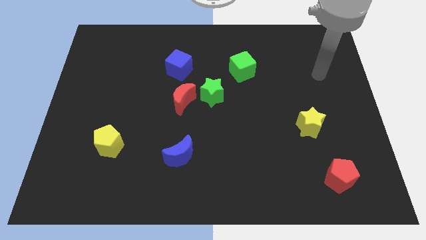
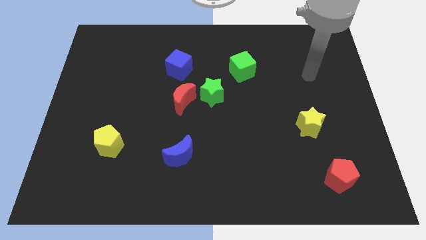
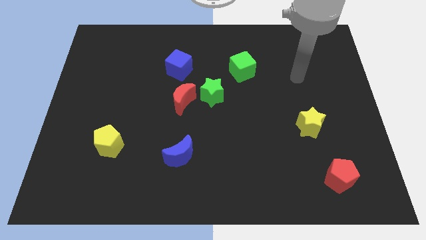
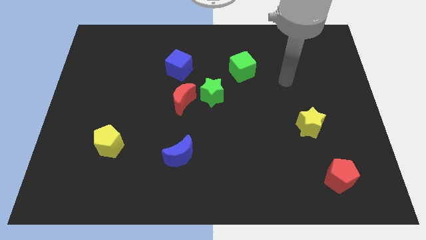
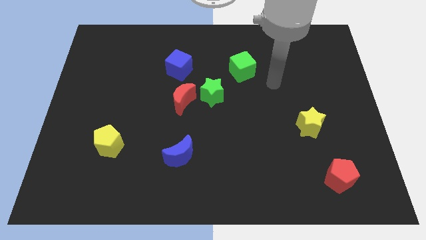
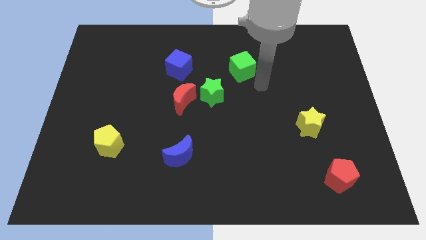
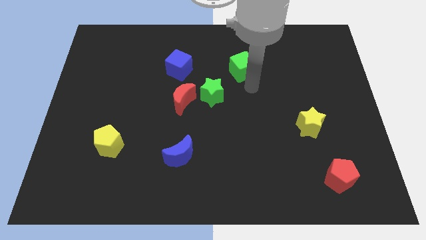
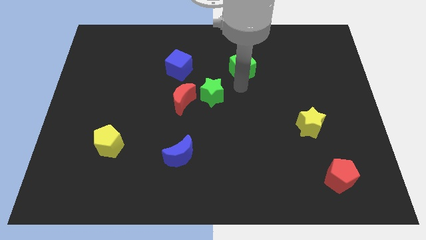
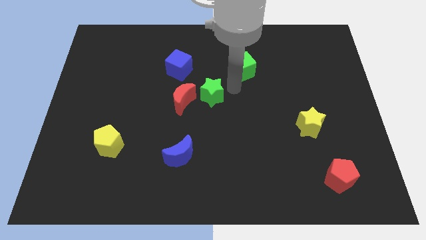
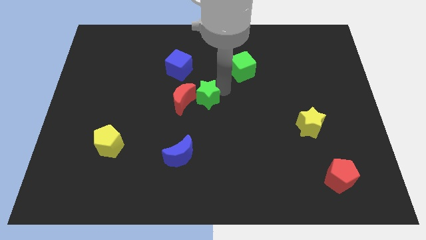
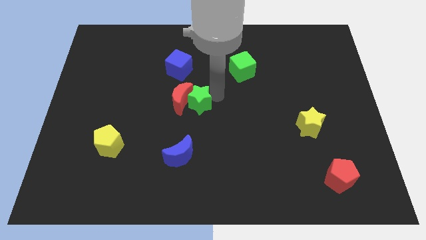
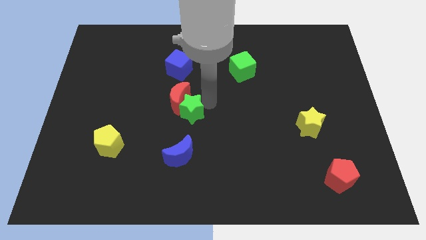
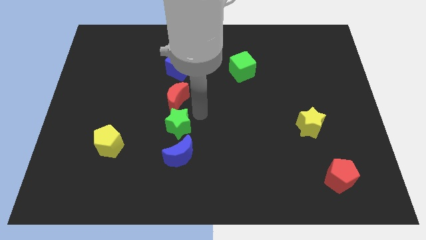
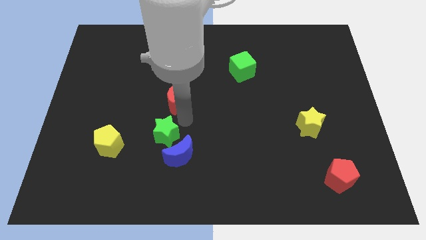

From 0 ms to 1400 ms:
pull the red moon apart from the green star

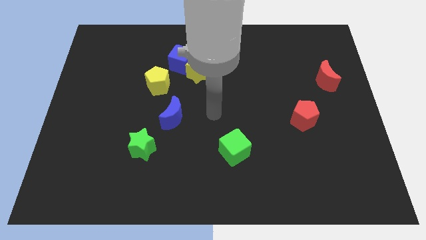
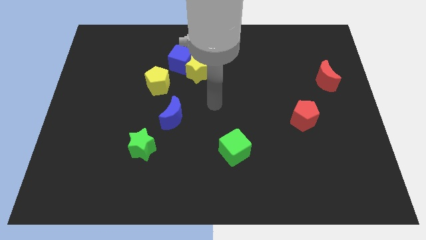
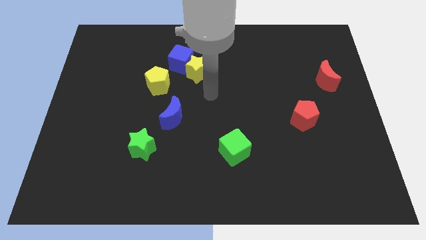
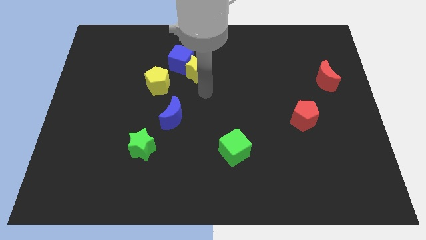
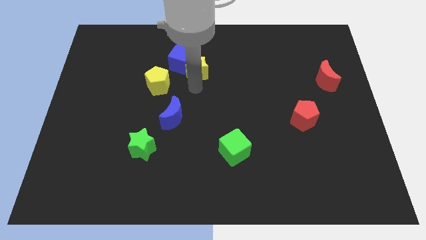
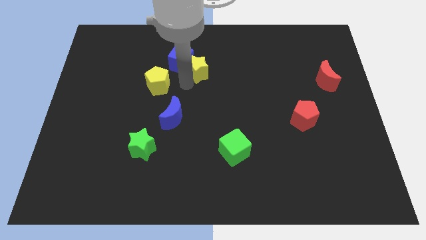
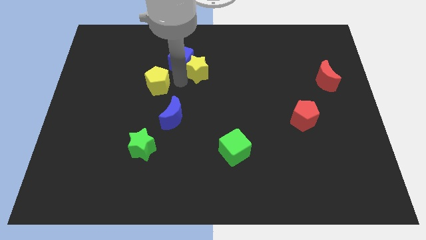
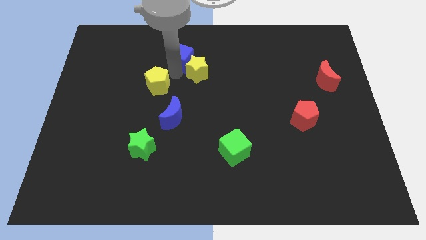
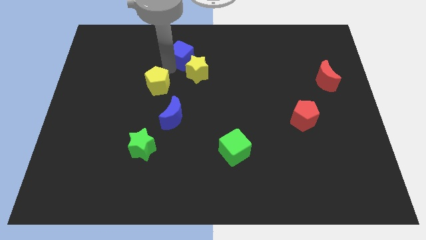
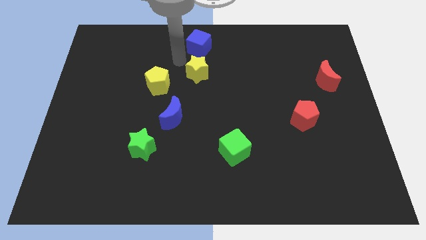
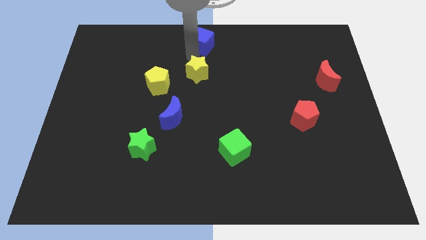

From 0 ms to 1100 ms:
move the yellow star away from the blue cube

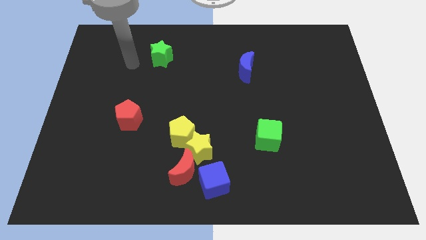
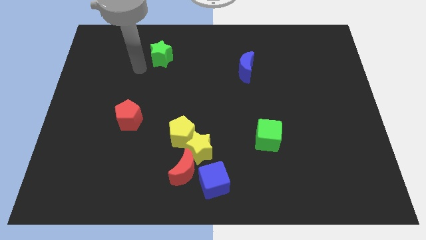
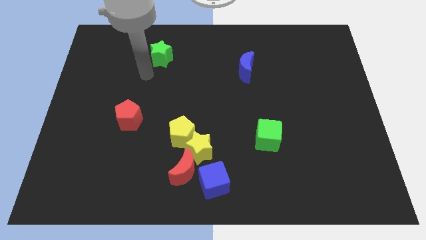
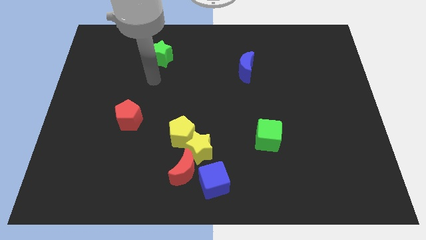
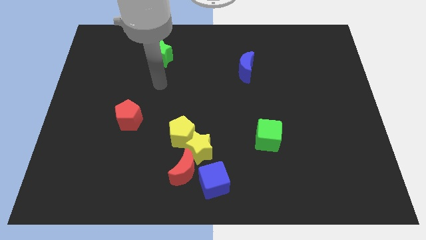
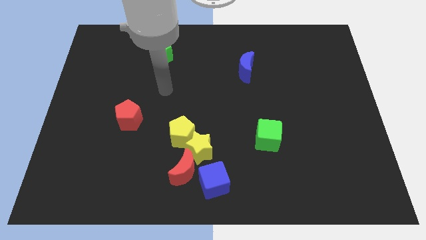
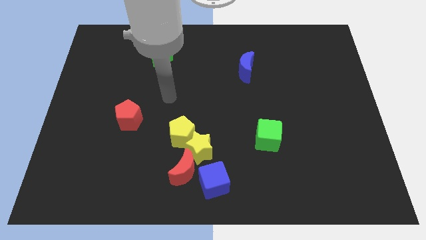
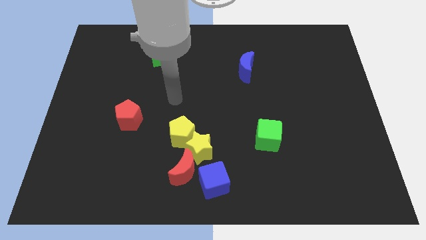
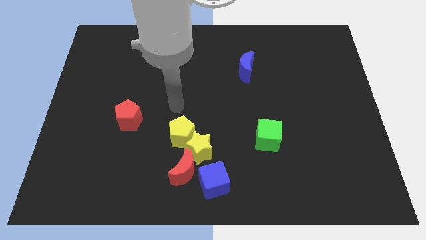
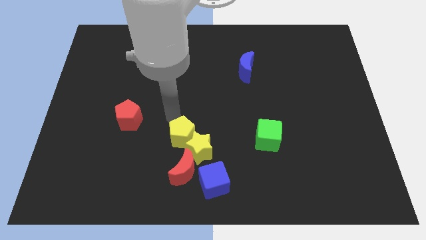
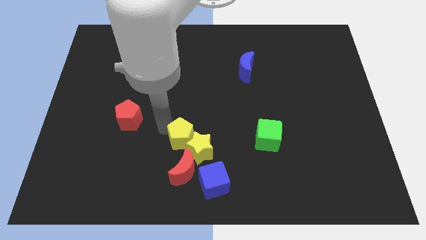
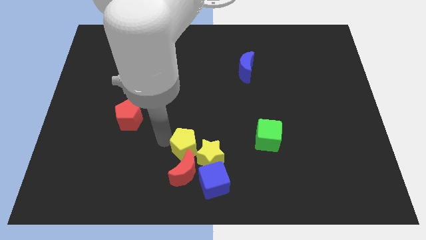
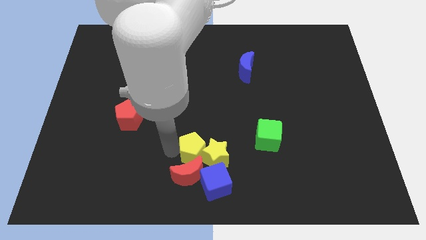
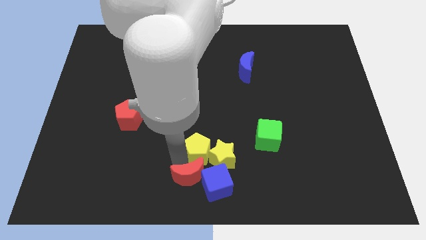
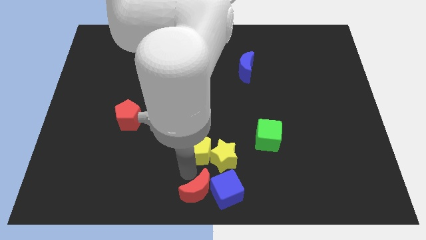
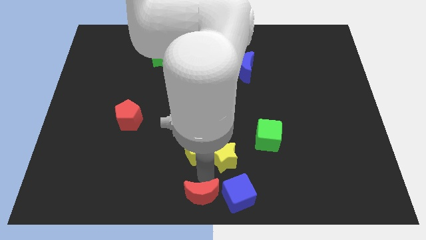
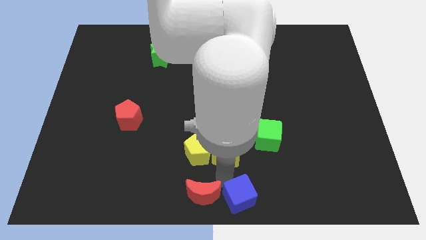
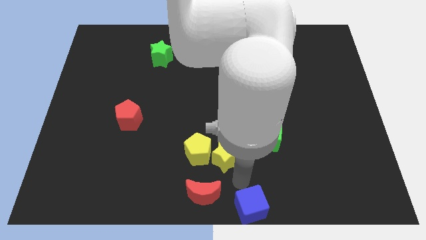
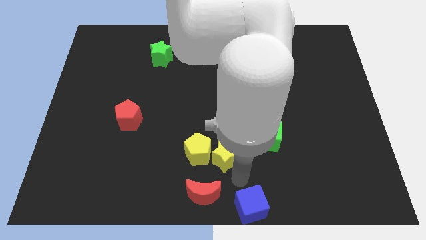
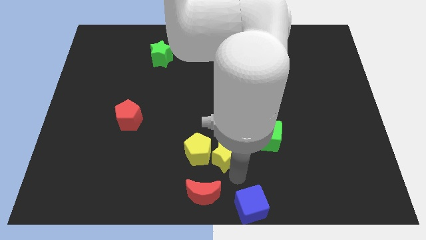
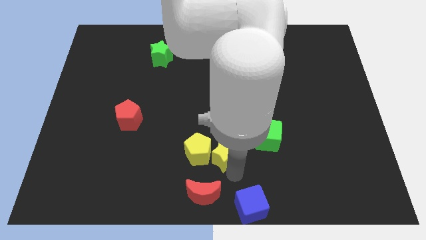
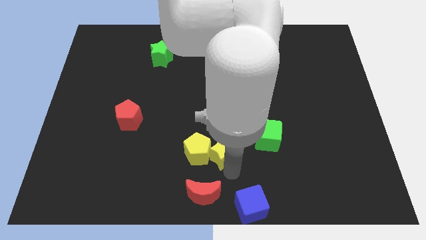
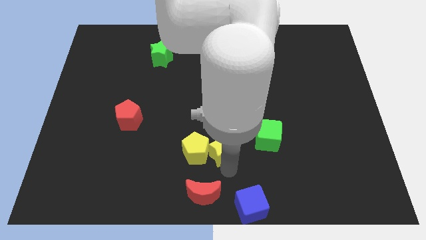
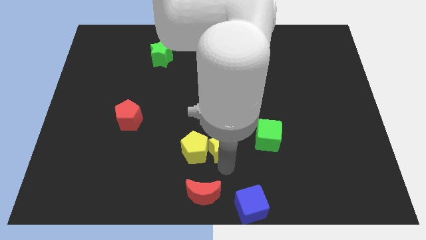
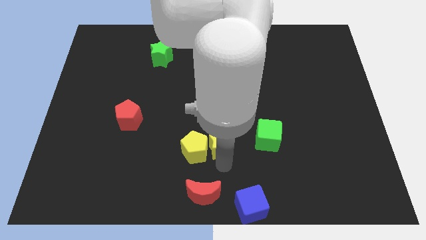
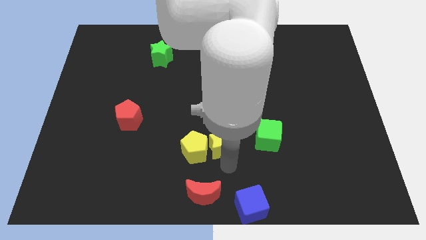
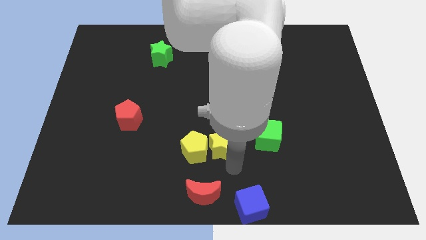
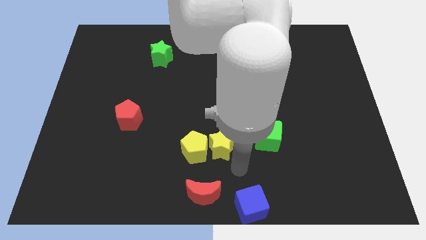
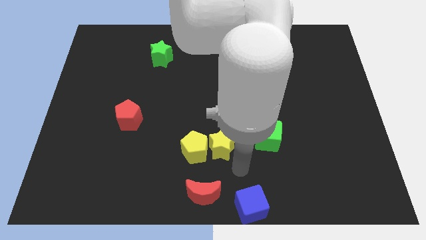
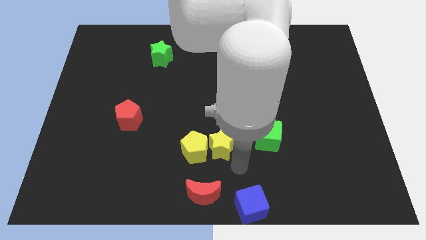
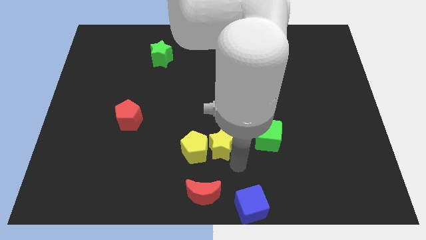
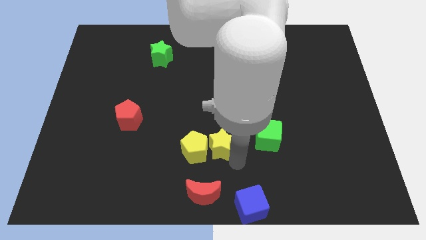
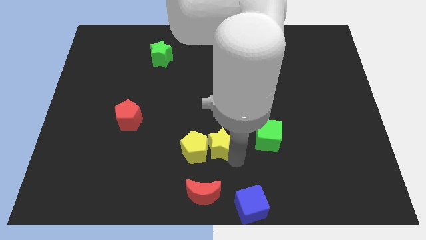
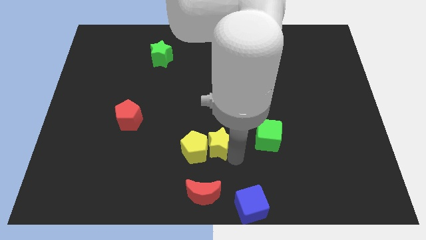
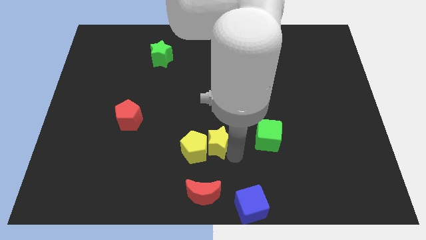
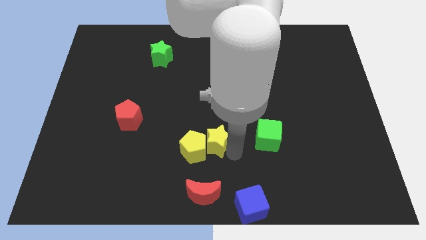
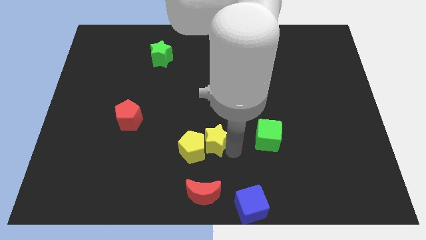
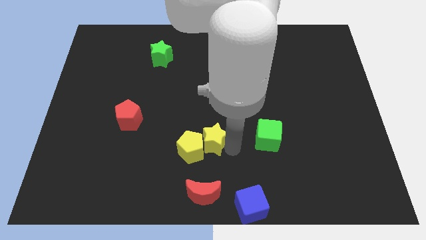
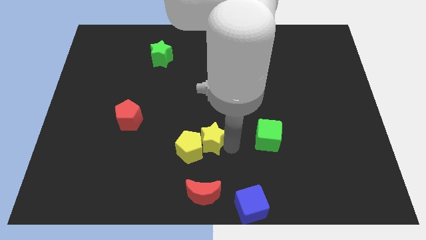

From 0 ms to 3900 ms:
pull the yellow star apart from the group of blocks

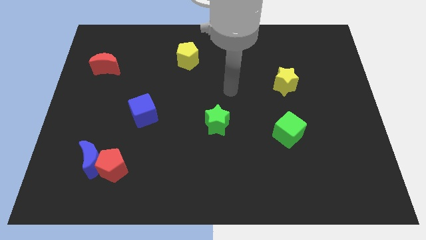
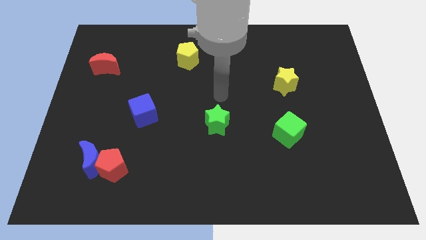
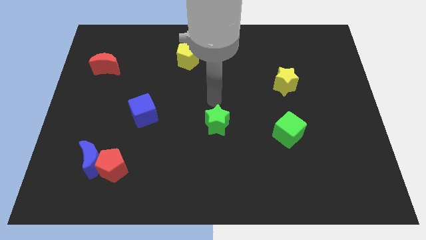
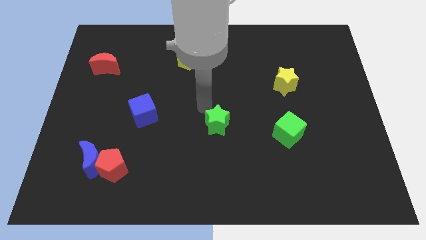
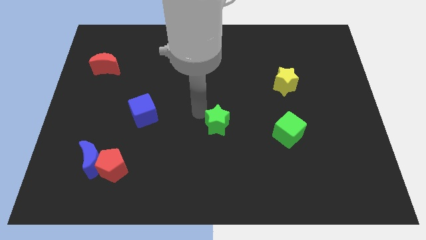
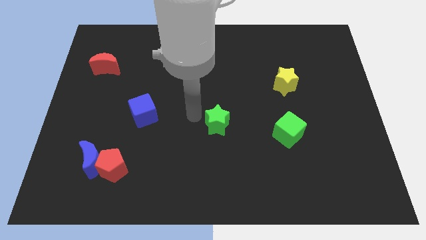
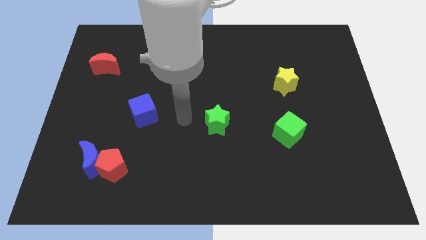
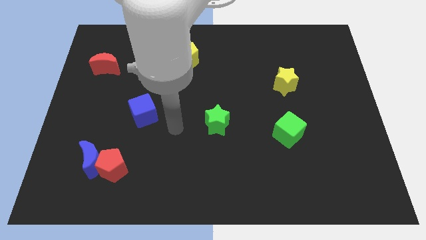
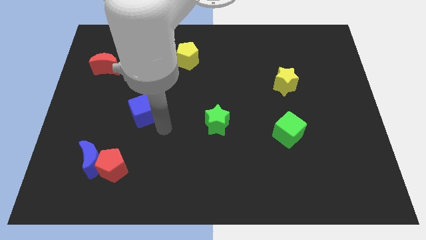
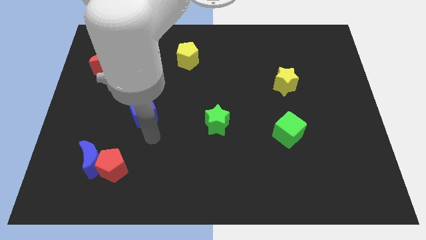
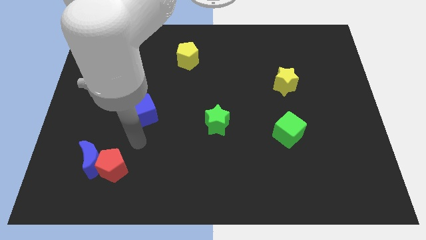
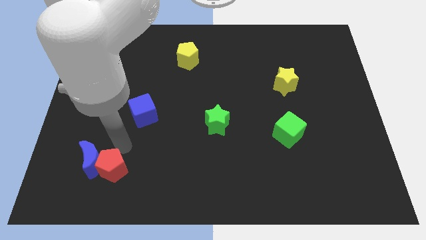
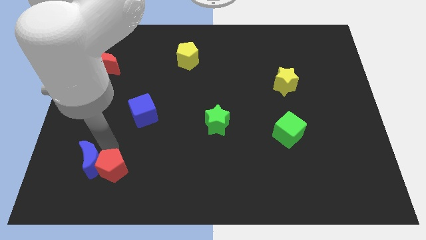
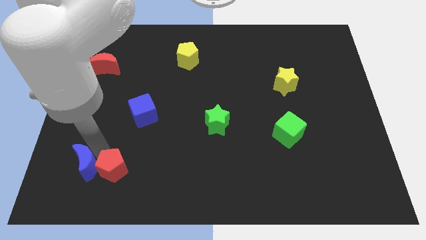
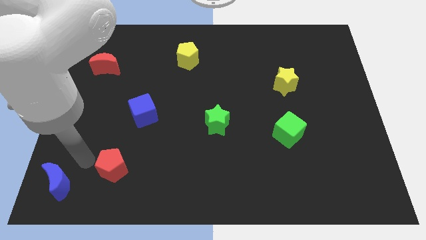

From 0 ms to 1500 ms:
separate the red pentagon from the blue moon

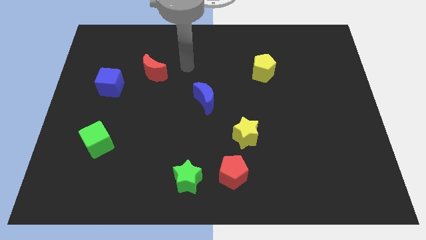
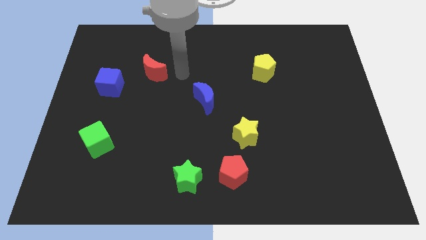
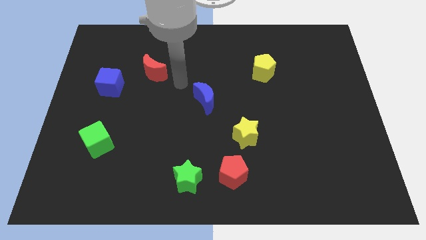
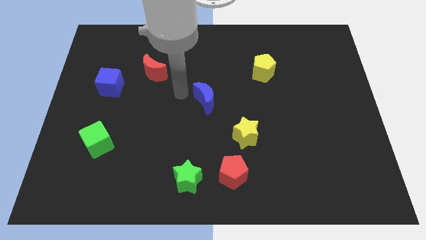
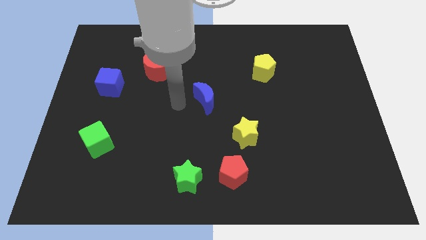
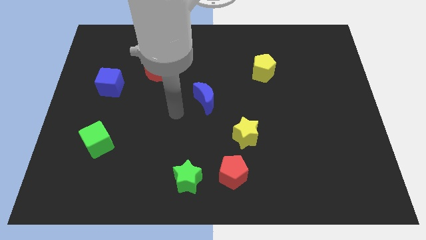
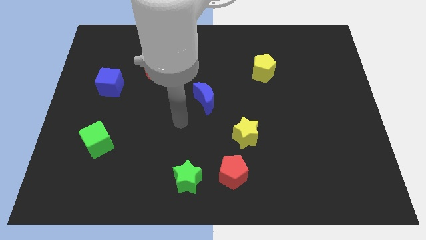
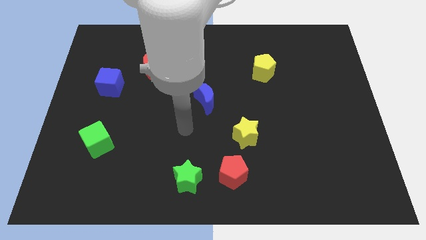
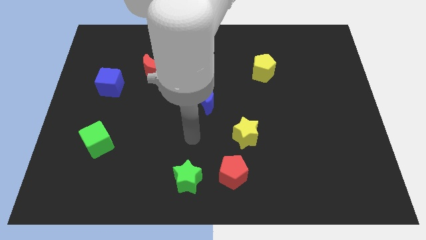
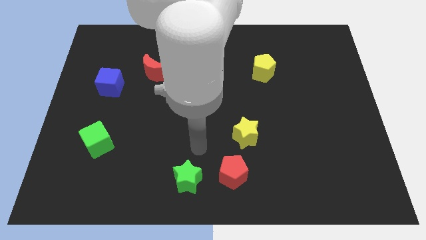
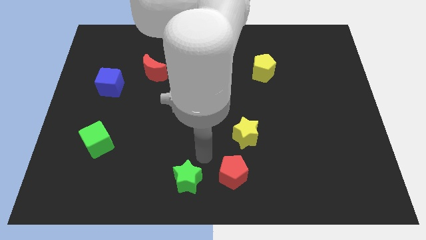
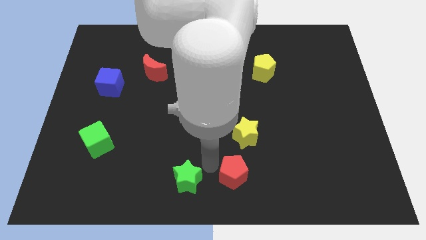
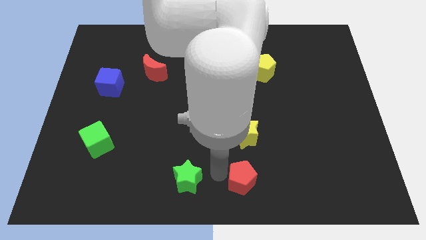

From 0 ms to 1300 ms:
pull the green star apart from the red pentagon
